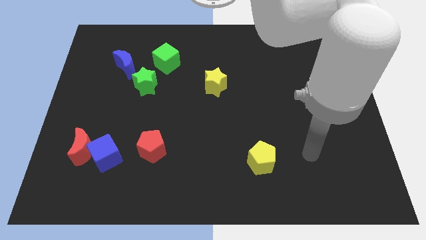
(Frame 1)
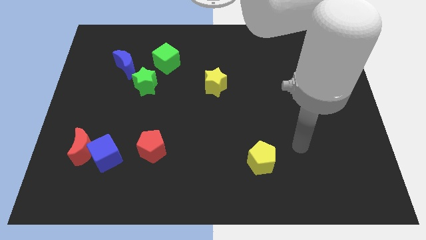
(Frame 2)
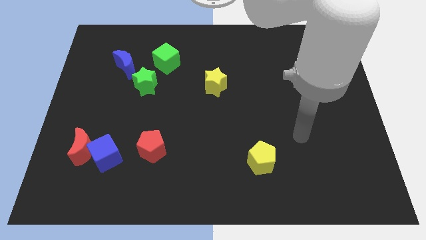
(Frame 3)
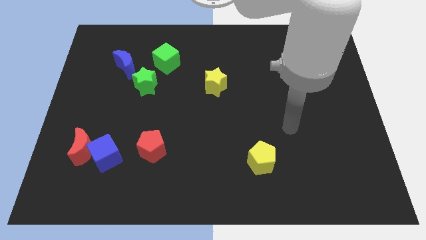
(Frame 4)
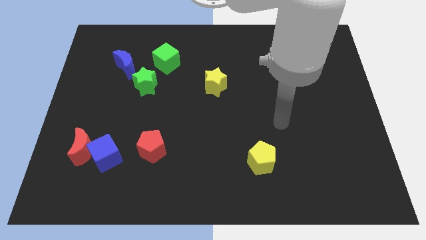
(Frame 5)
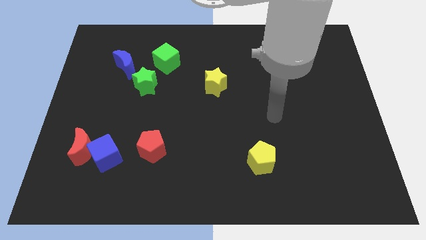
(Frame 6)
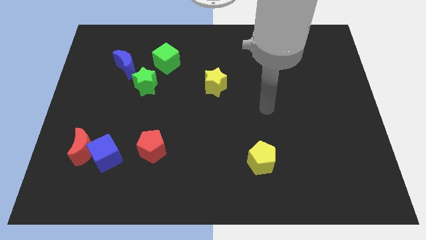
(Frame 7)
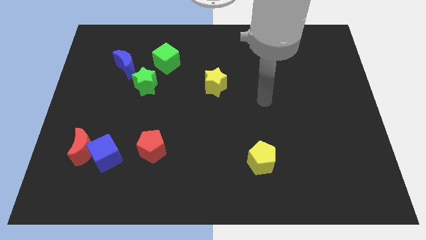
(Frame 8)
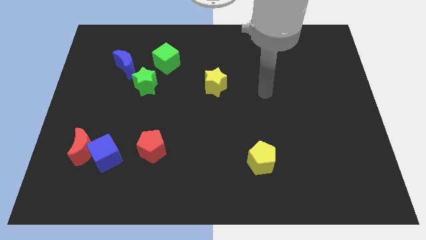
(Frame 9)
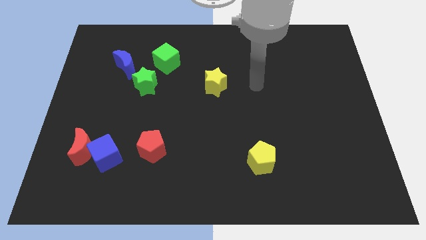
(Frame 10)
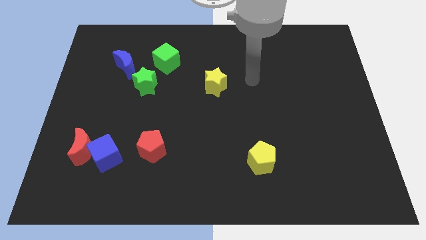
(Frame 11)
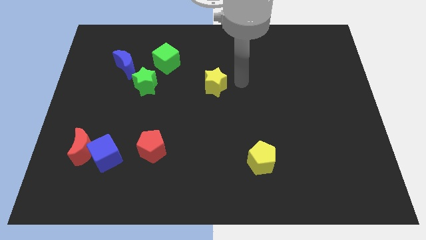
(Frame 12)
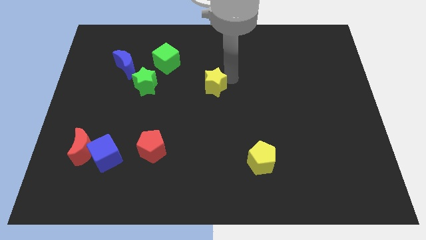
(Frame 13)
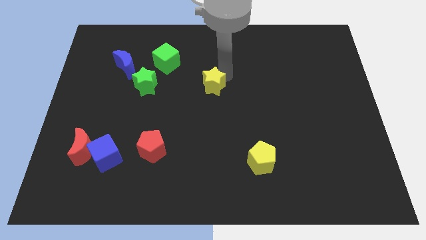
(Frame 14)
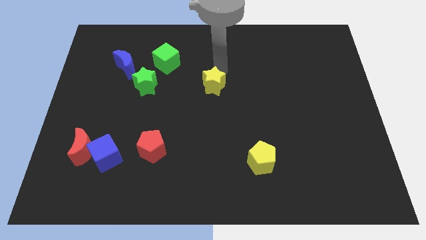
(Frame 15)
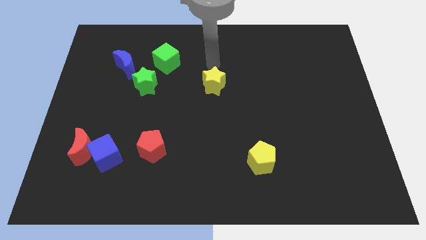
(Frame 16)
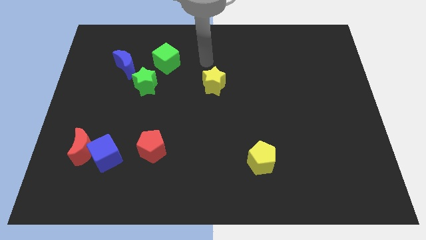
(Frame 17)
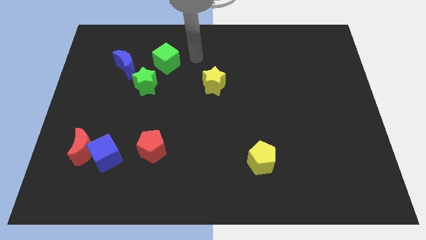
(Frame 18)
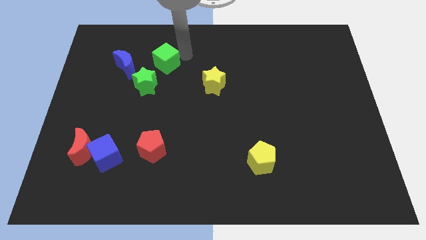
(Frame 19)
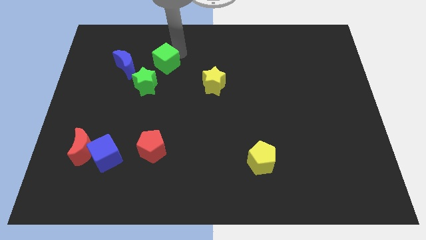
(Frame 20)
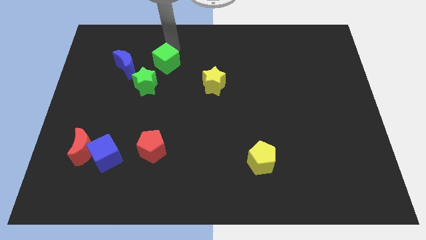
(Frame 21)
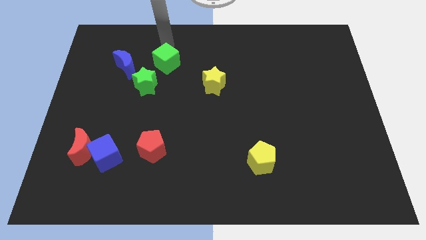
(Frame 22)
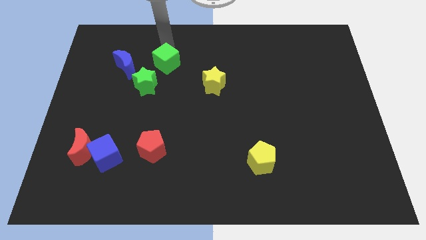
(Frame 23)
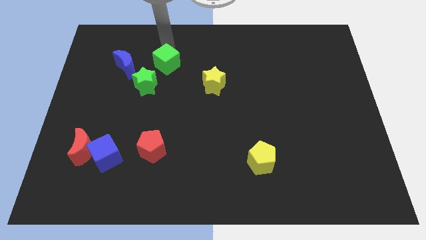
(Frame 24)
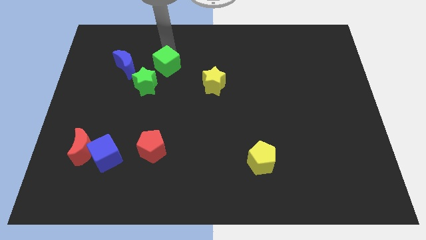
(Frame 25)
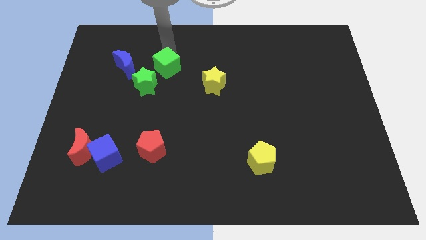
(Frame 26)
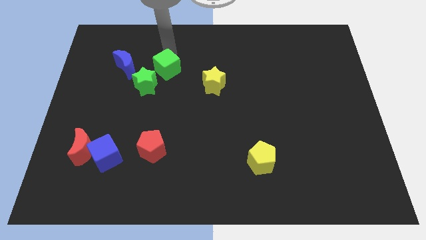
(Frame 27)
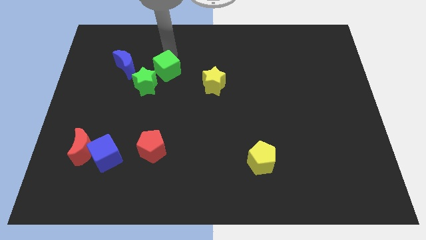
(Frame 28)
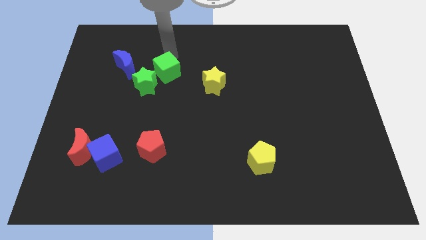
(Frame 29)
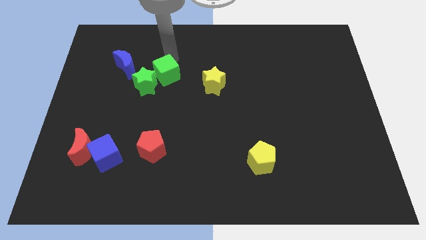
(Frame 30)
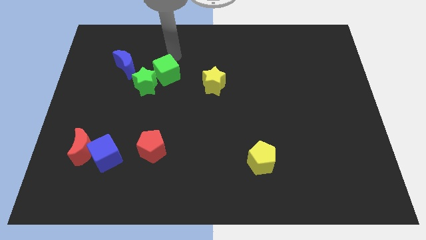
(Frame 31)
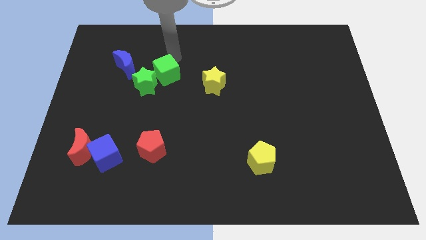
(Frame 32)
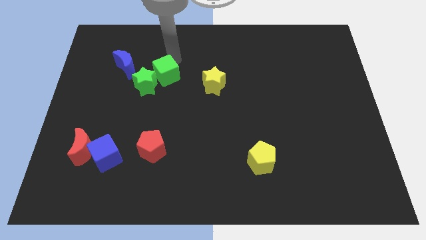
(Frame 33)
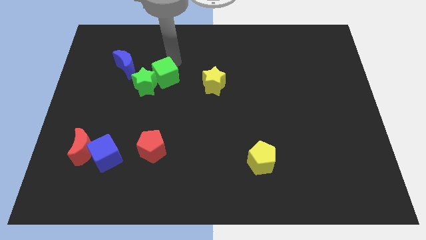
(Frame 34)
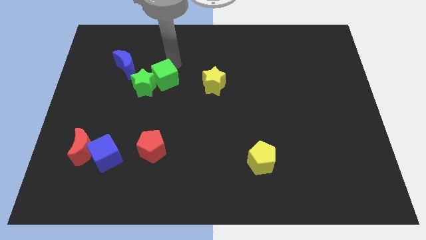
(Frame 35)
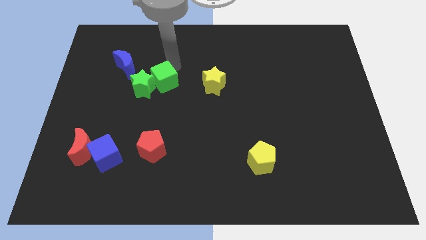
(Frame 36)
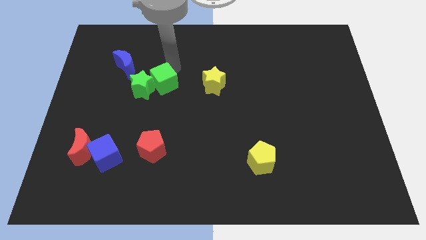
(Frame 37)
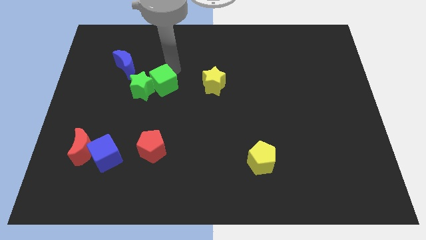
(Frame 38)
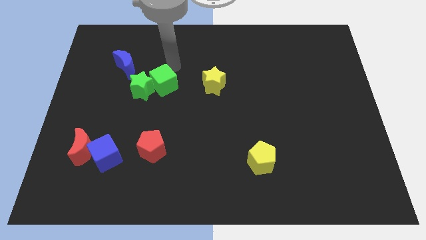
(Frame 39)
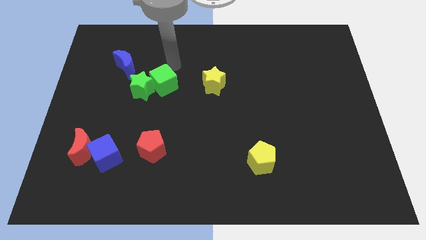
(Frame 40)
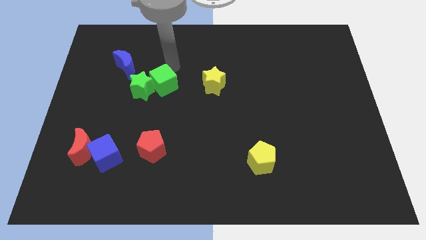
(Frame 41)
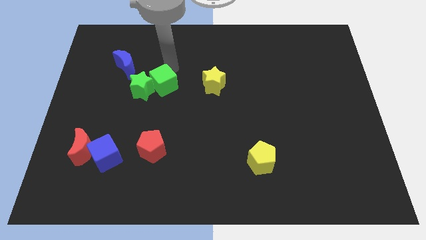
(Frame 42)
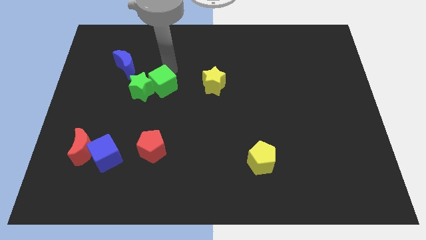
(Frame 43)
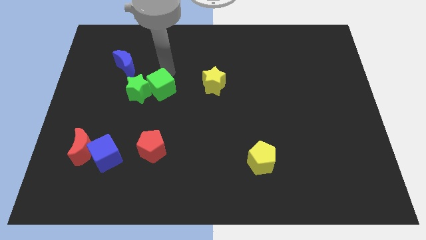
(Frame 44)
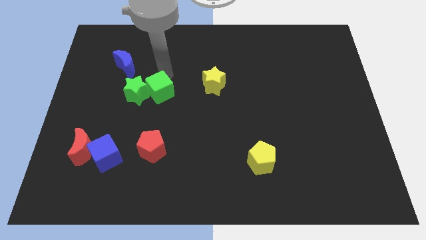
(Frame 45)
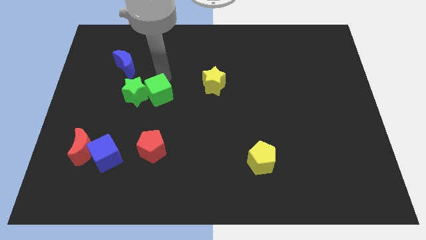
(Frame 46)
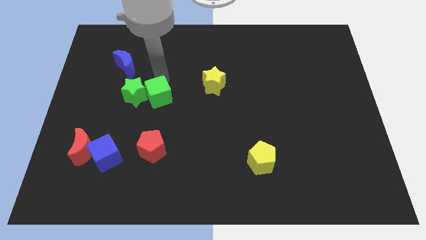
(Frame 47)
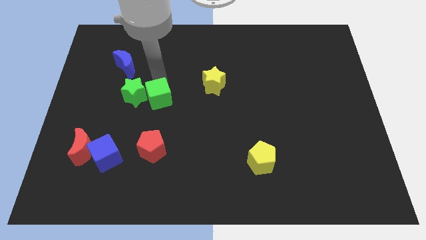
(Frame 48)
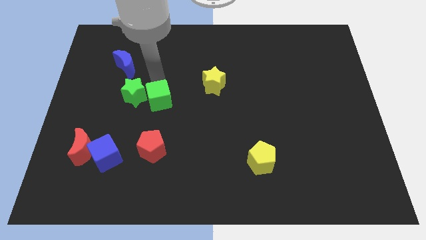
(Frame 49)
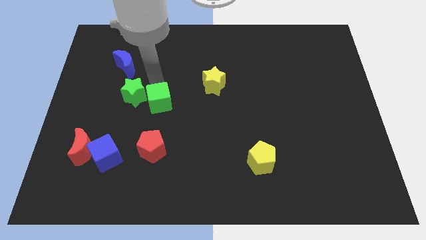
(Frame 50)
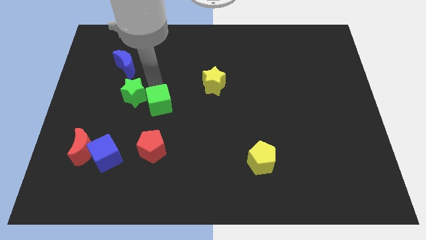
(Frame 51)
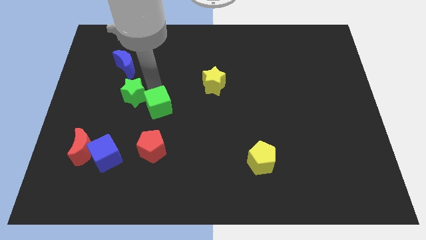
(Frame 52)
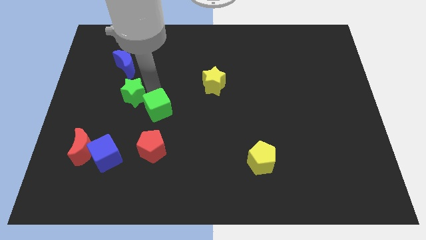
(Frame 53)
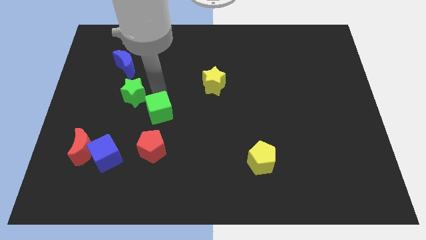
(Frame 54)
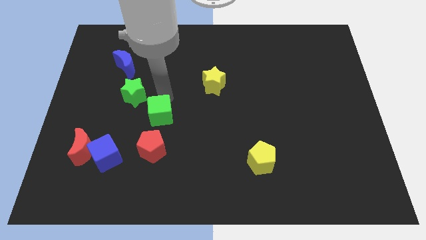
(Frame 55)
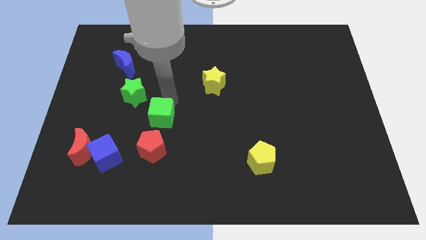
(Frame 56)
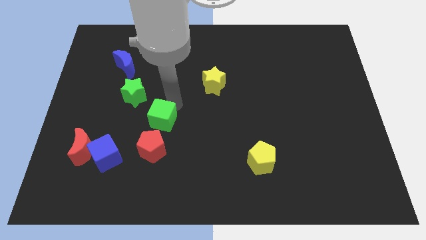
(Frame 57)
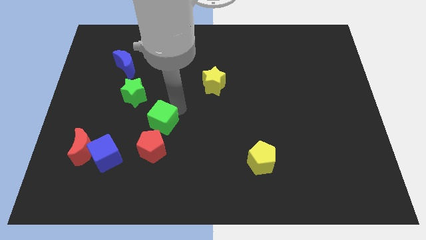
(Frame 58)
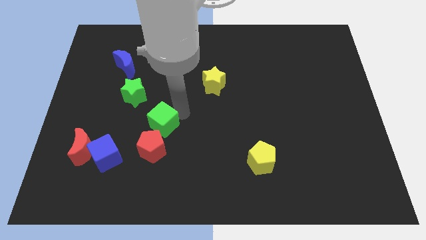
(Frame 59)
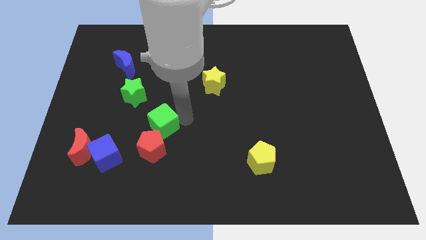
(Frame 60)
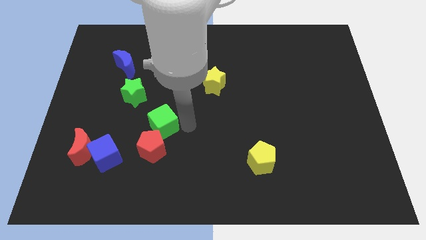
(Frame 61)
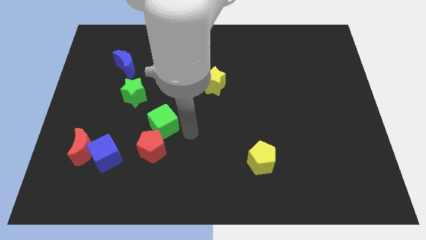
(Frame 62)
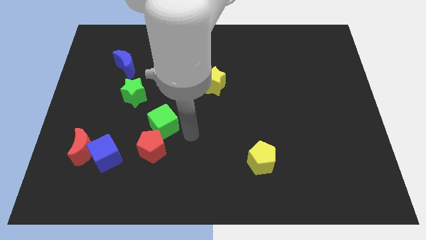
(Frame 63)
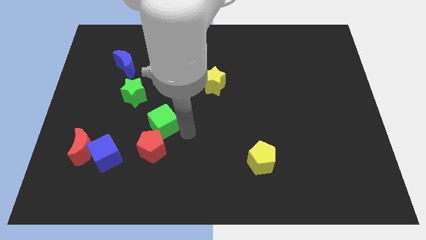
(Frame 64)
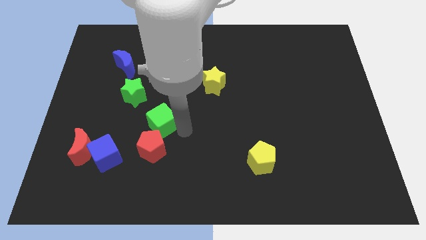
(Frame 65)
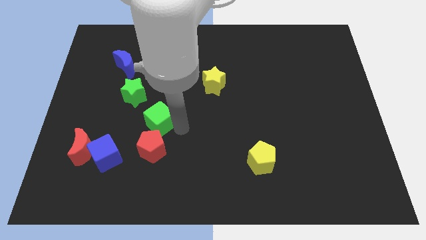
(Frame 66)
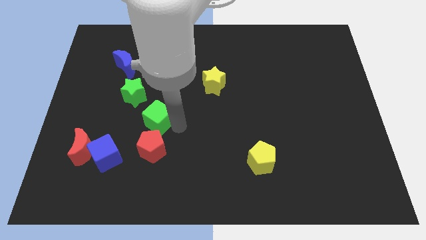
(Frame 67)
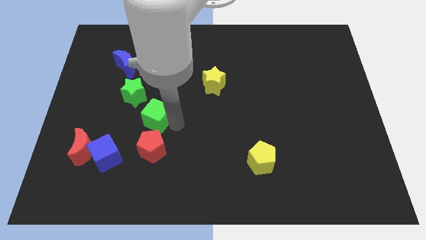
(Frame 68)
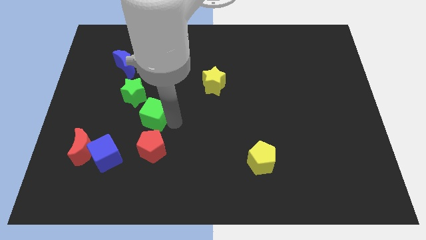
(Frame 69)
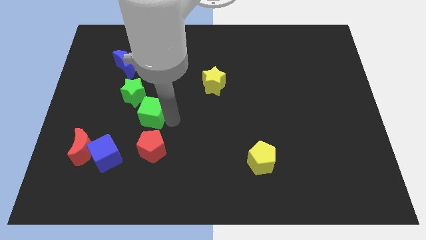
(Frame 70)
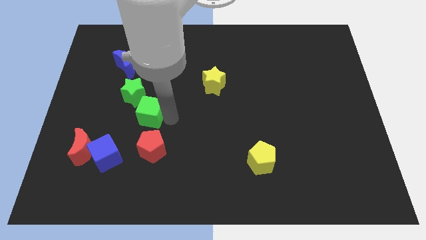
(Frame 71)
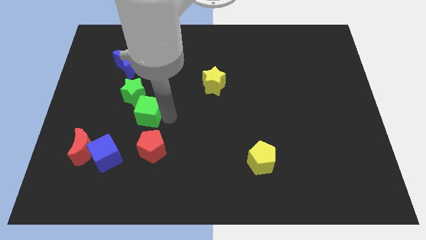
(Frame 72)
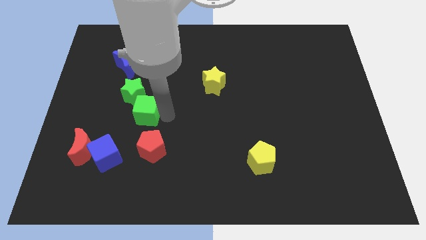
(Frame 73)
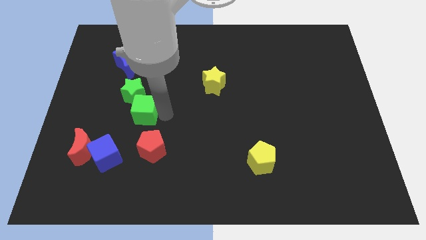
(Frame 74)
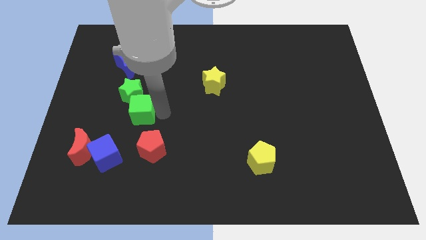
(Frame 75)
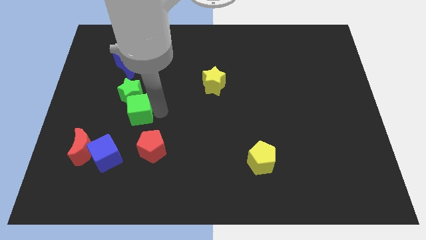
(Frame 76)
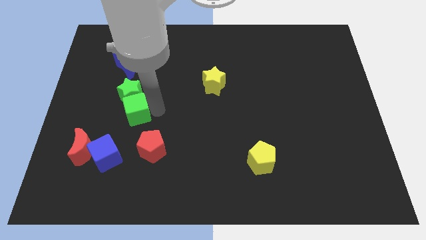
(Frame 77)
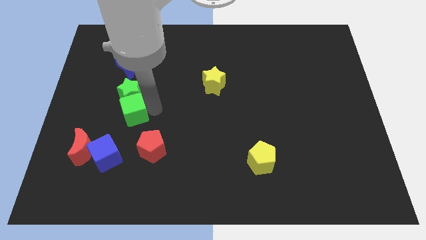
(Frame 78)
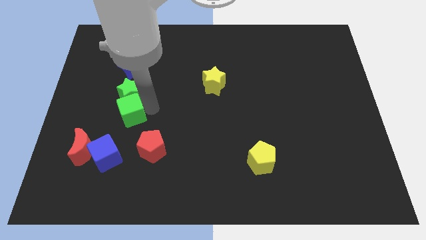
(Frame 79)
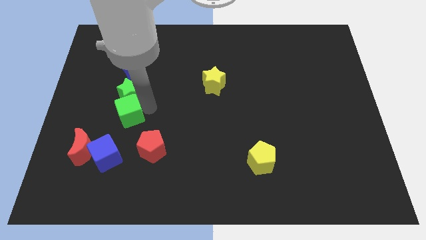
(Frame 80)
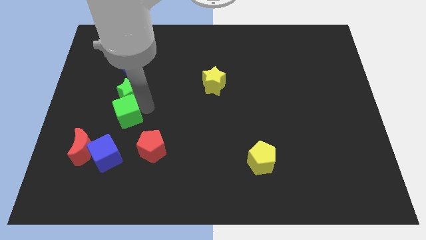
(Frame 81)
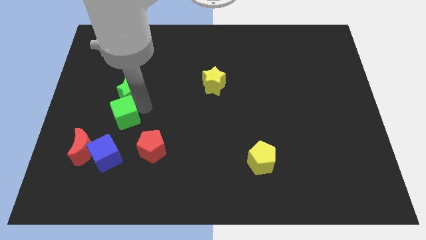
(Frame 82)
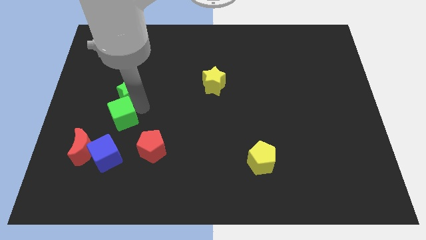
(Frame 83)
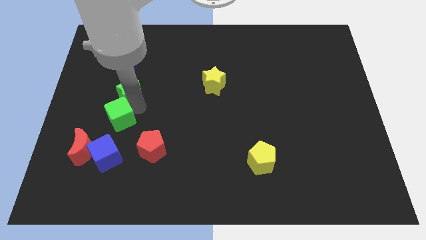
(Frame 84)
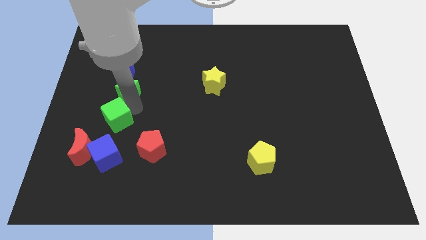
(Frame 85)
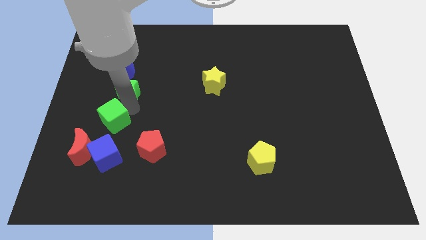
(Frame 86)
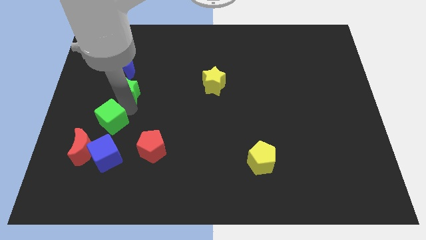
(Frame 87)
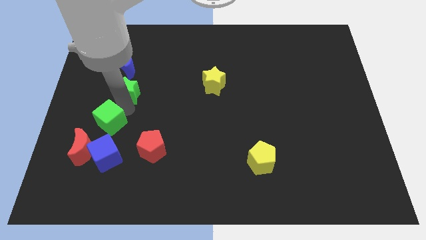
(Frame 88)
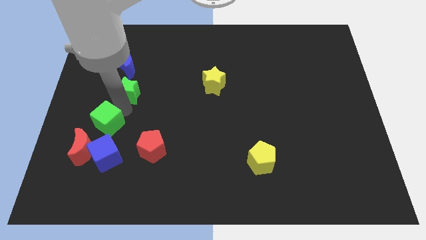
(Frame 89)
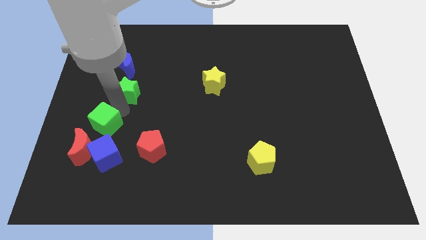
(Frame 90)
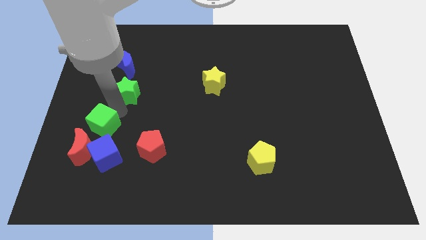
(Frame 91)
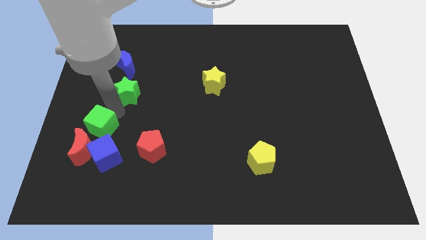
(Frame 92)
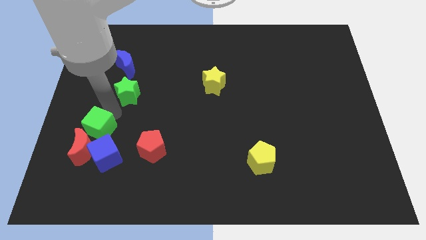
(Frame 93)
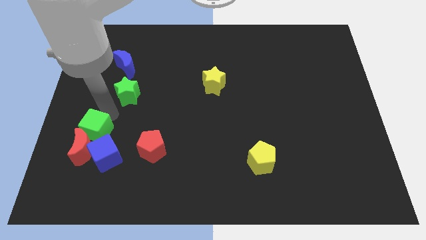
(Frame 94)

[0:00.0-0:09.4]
slide the green cube close to the red moon
